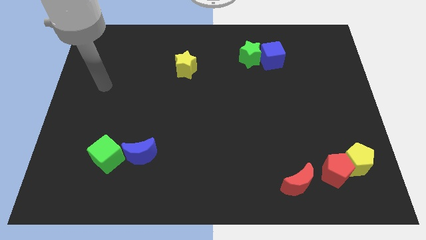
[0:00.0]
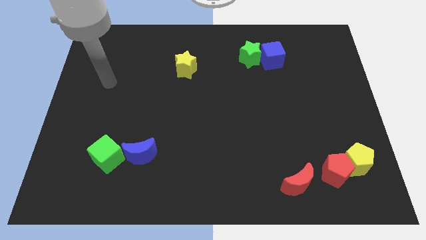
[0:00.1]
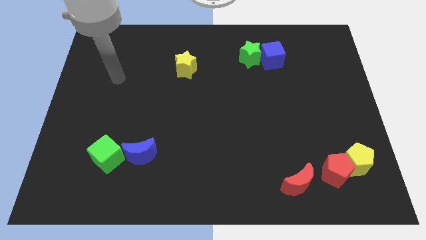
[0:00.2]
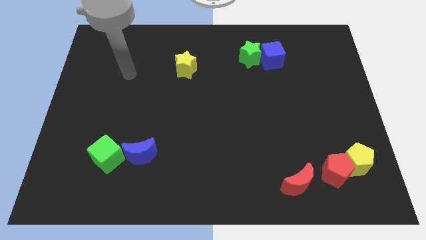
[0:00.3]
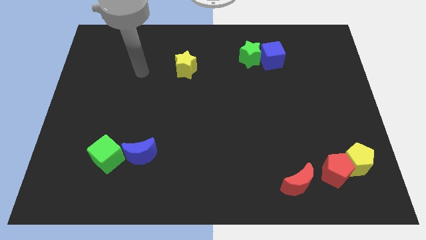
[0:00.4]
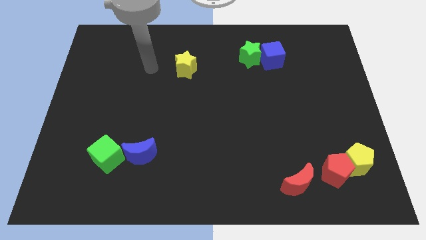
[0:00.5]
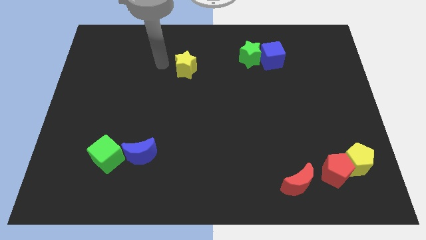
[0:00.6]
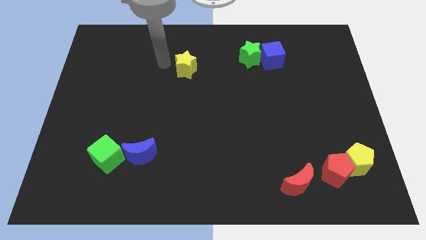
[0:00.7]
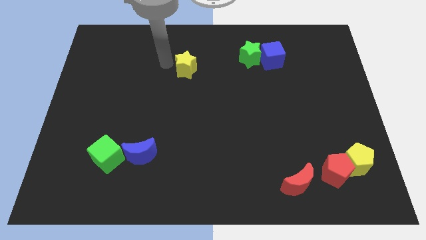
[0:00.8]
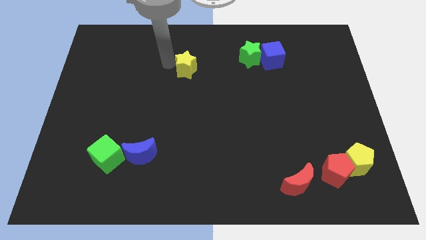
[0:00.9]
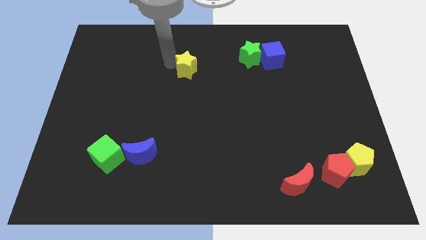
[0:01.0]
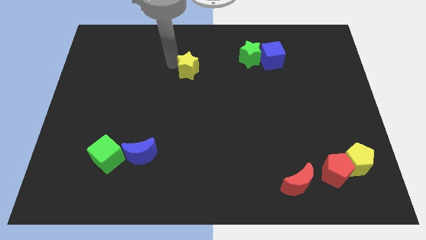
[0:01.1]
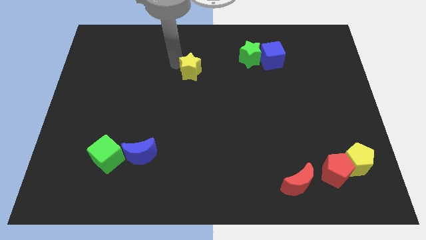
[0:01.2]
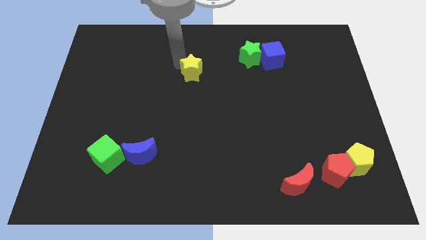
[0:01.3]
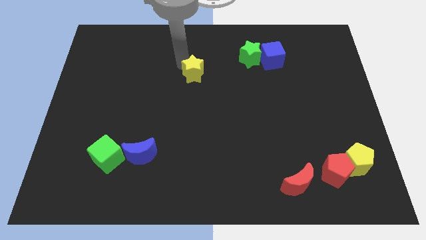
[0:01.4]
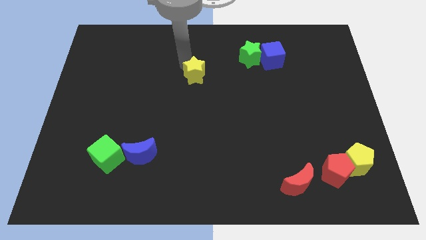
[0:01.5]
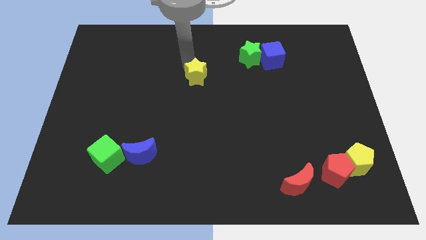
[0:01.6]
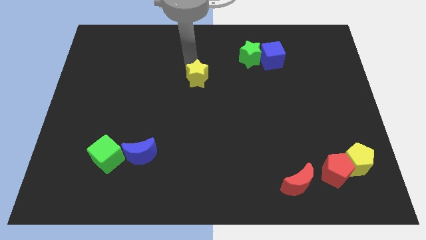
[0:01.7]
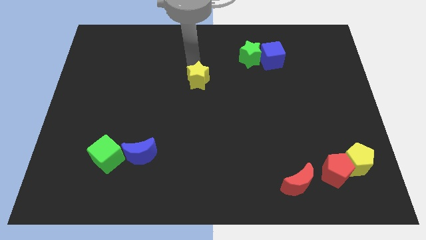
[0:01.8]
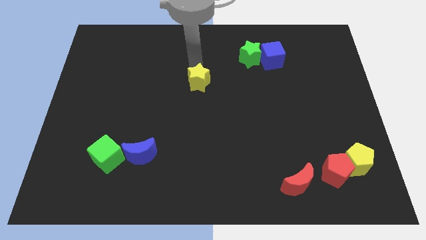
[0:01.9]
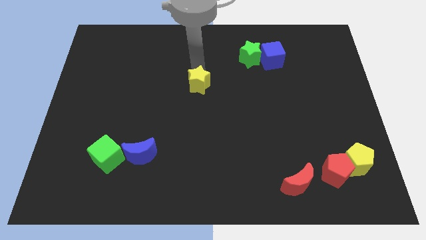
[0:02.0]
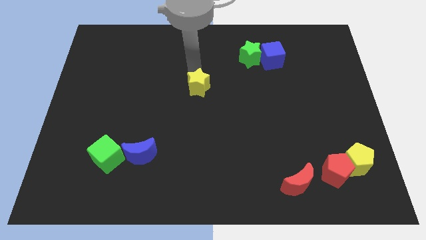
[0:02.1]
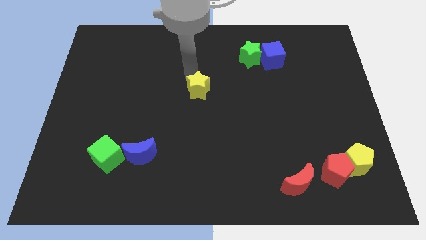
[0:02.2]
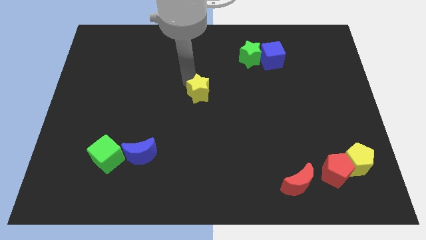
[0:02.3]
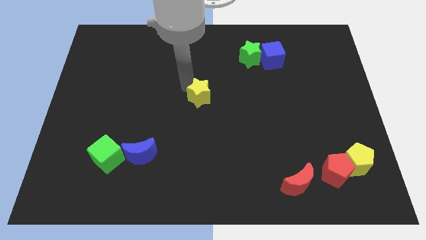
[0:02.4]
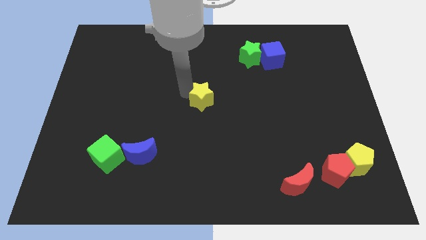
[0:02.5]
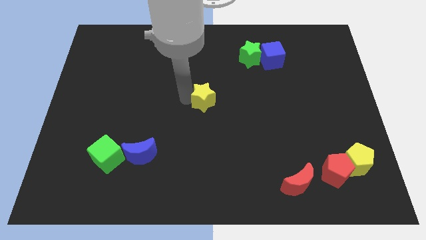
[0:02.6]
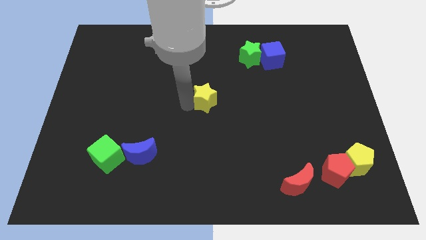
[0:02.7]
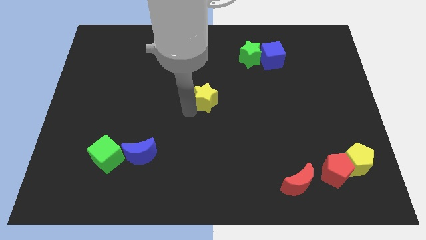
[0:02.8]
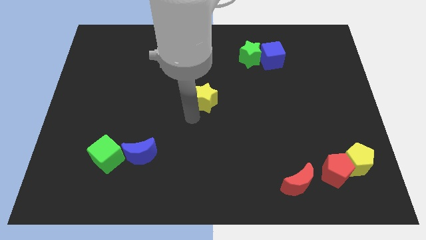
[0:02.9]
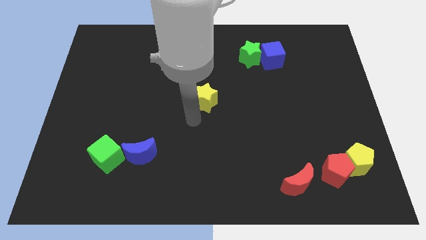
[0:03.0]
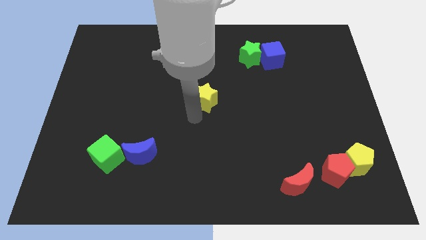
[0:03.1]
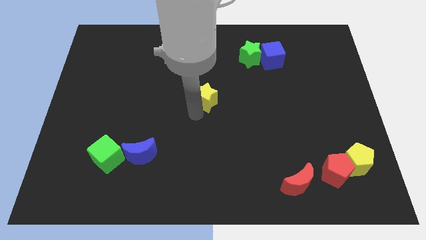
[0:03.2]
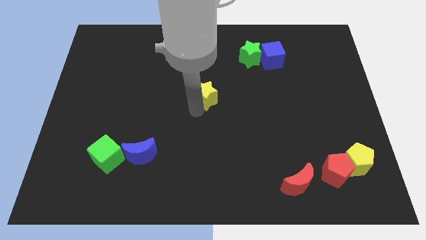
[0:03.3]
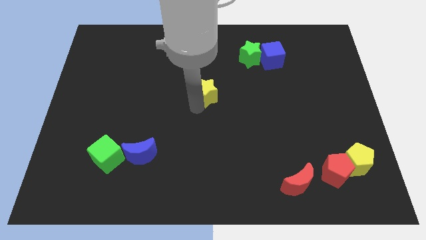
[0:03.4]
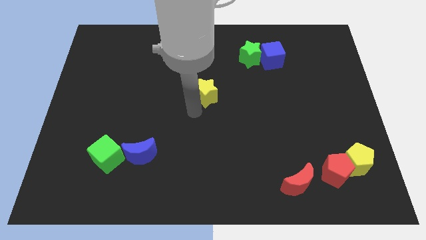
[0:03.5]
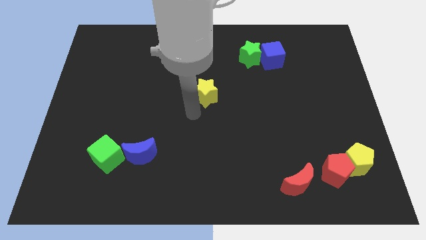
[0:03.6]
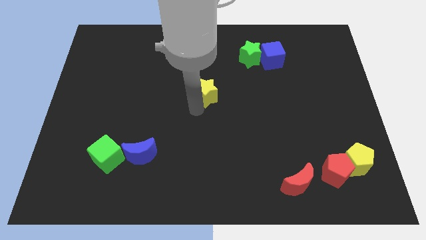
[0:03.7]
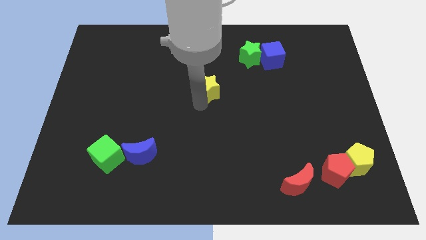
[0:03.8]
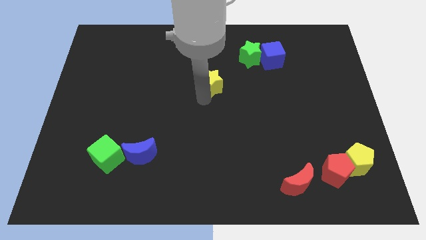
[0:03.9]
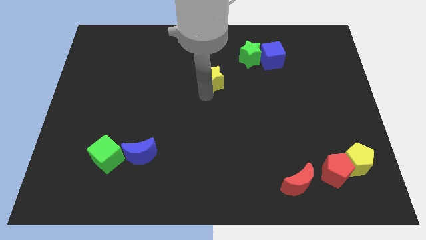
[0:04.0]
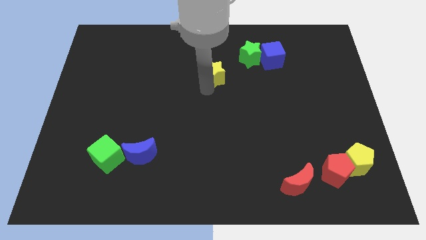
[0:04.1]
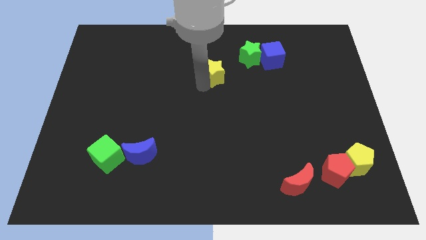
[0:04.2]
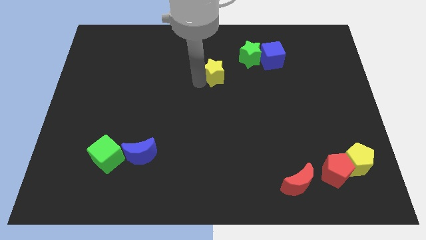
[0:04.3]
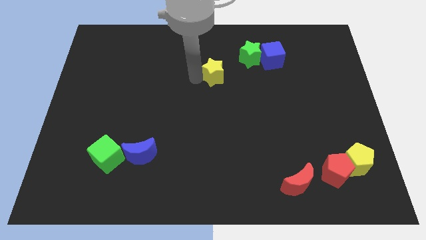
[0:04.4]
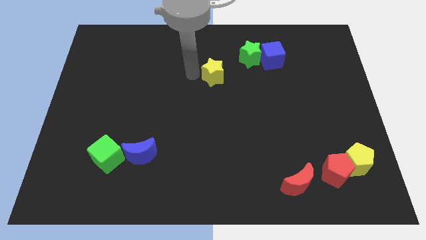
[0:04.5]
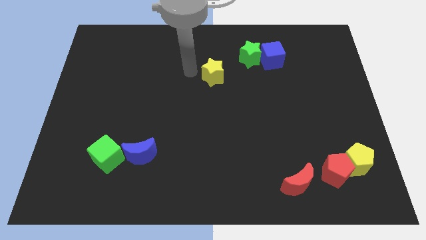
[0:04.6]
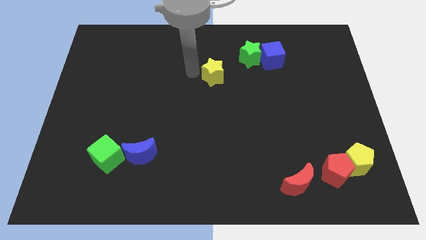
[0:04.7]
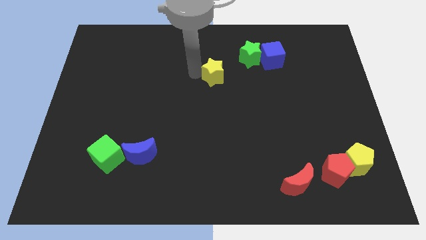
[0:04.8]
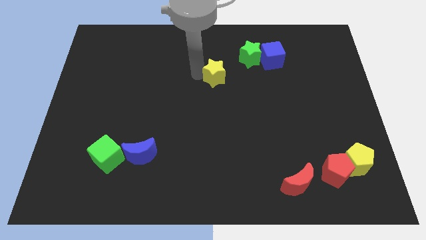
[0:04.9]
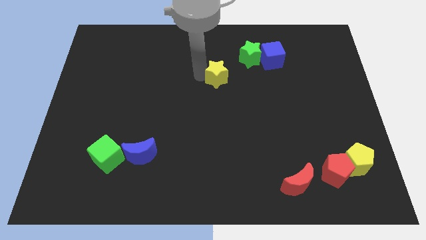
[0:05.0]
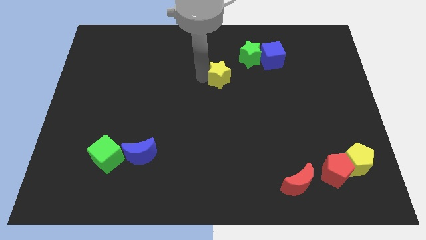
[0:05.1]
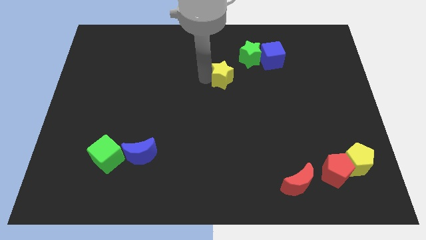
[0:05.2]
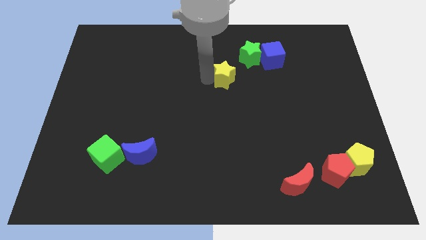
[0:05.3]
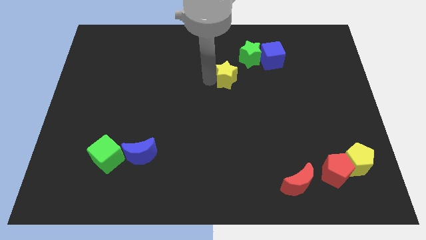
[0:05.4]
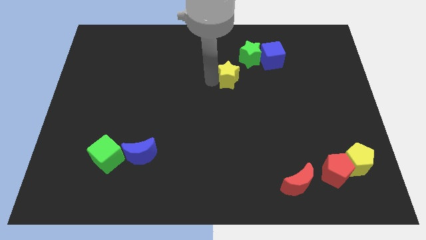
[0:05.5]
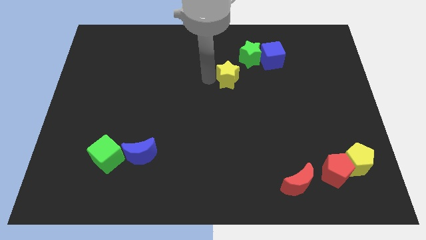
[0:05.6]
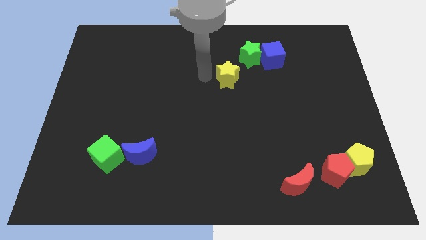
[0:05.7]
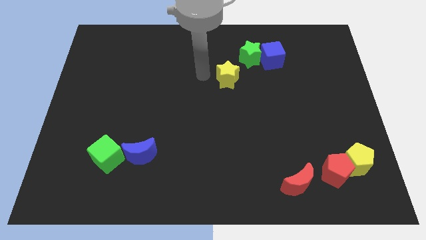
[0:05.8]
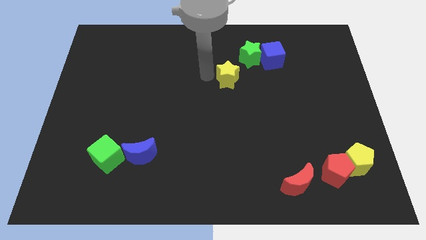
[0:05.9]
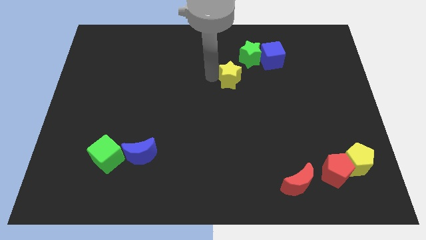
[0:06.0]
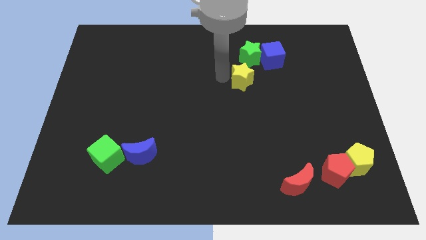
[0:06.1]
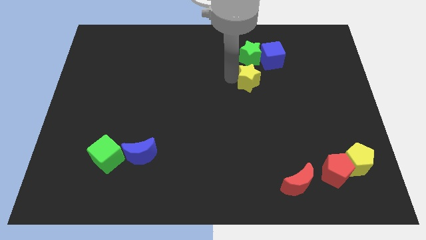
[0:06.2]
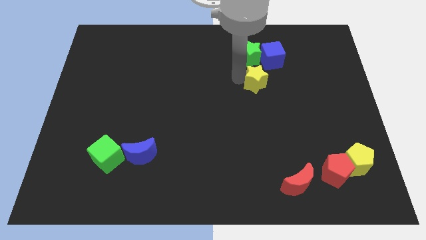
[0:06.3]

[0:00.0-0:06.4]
slide the yellow star below the blue cube

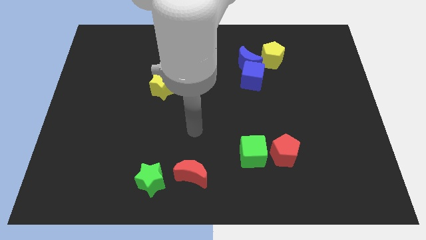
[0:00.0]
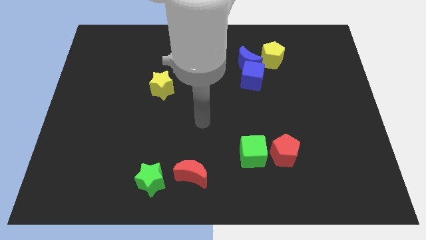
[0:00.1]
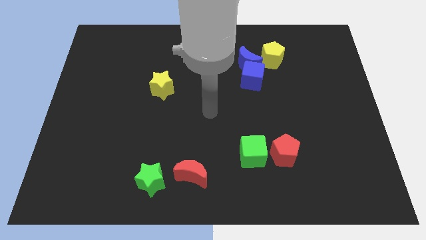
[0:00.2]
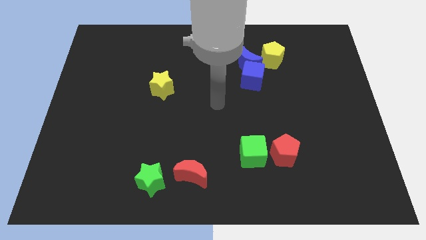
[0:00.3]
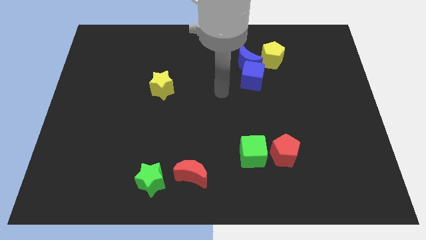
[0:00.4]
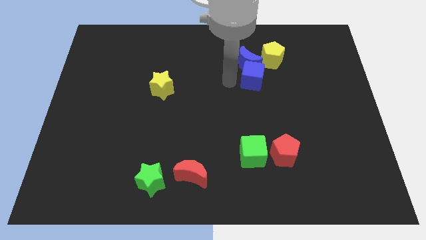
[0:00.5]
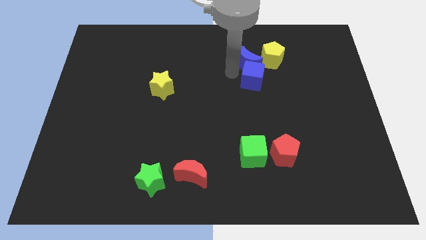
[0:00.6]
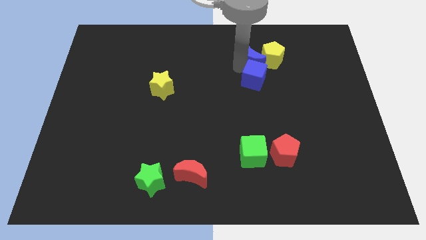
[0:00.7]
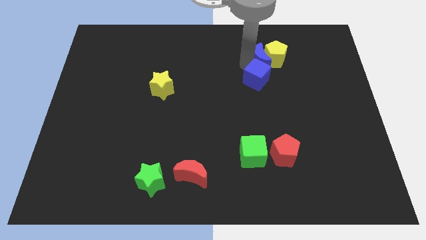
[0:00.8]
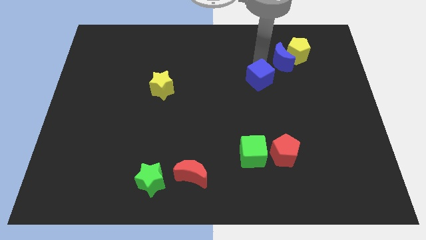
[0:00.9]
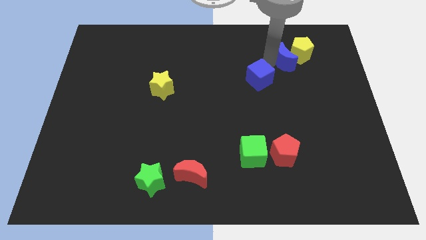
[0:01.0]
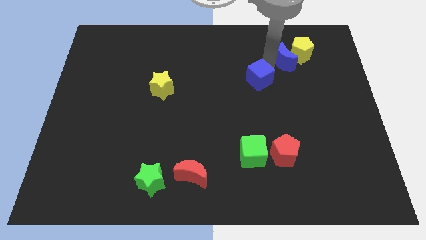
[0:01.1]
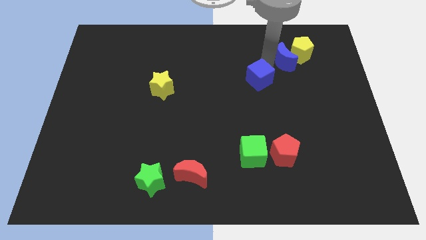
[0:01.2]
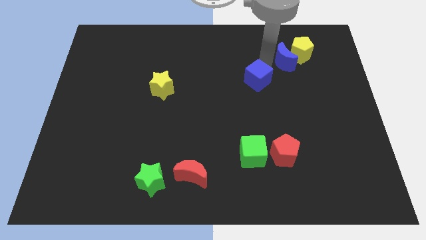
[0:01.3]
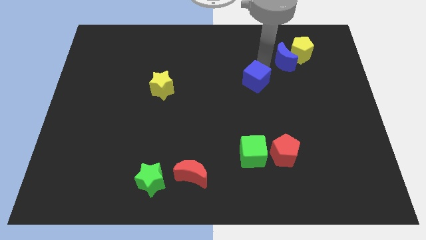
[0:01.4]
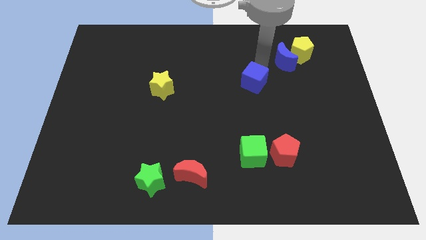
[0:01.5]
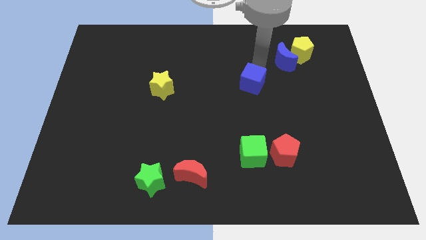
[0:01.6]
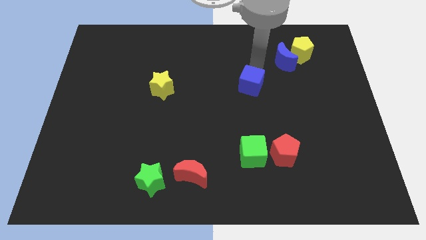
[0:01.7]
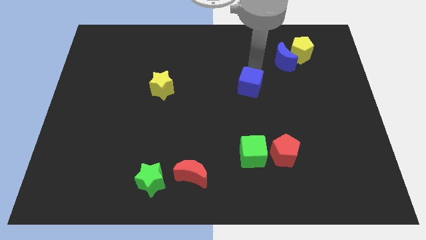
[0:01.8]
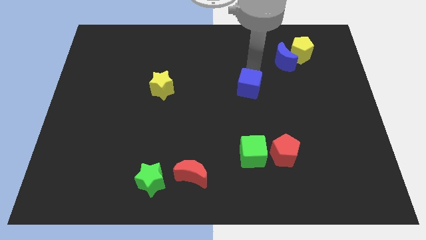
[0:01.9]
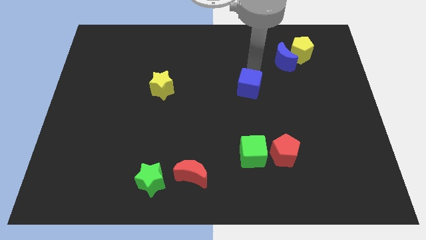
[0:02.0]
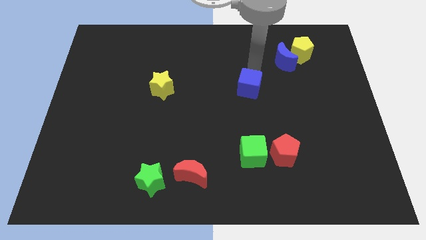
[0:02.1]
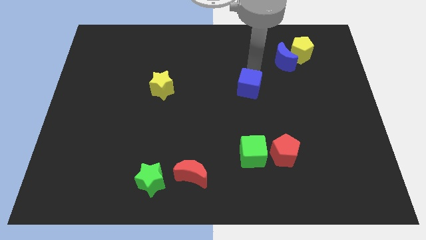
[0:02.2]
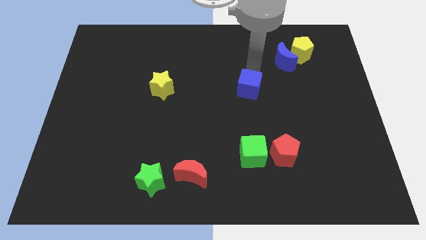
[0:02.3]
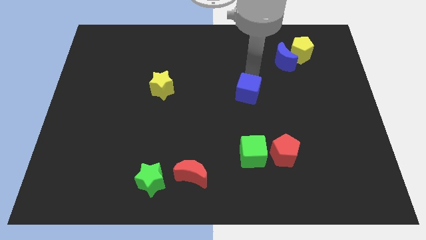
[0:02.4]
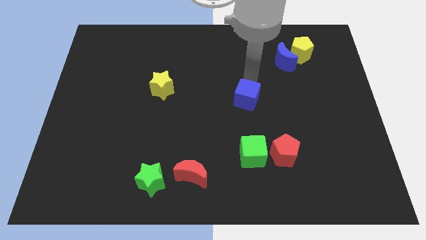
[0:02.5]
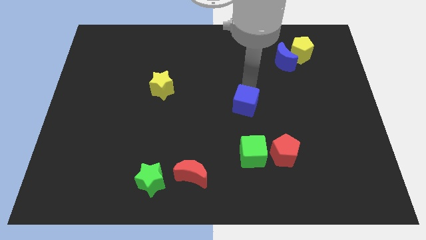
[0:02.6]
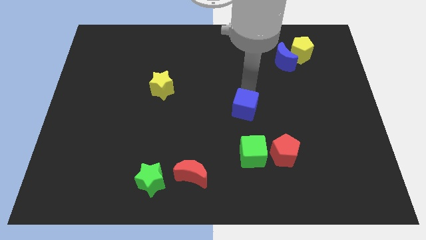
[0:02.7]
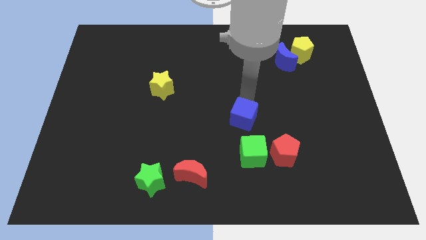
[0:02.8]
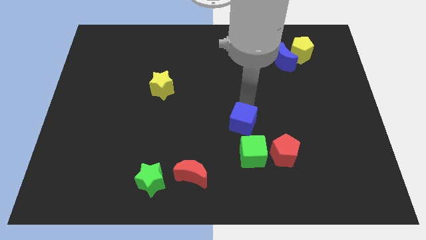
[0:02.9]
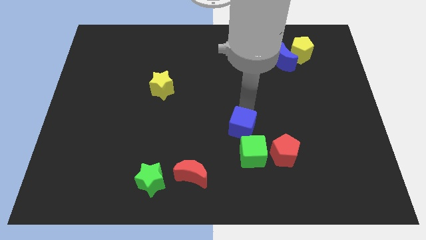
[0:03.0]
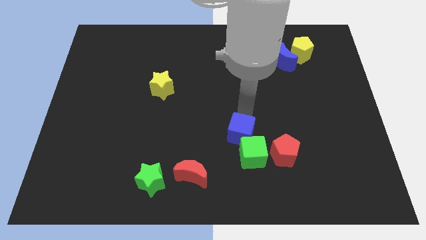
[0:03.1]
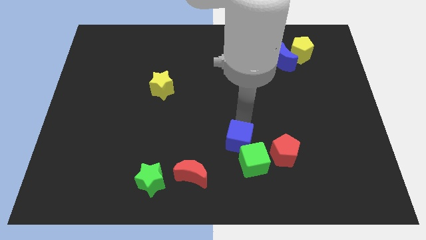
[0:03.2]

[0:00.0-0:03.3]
move the blue cube left of the red pentagon
